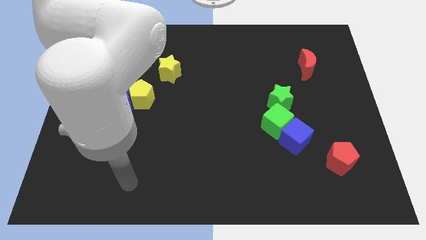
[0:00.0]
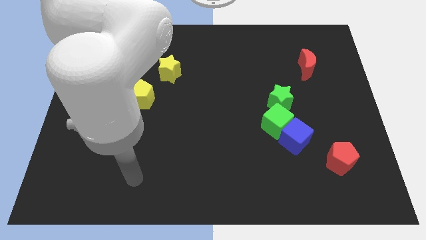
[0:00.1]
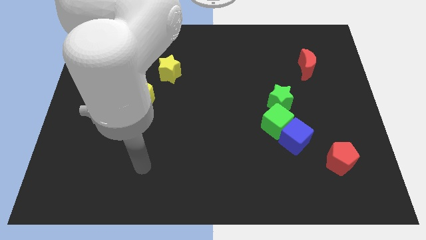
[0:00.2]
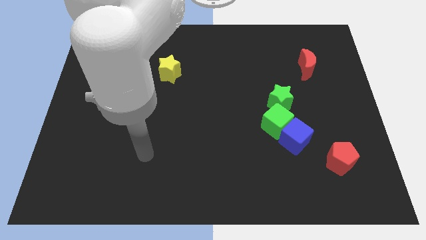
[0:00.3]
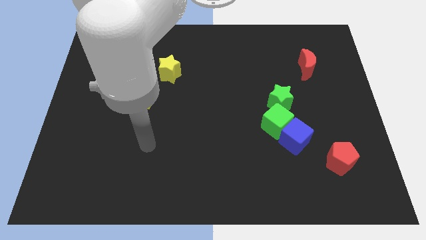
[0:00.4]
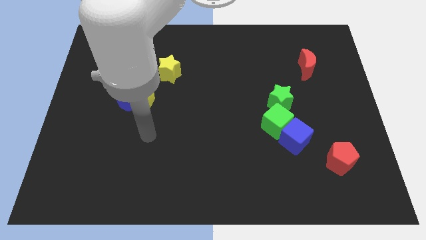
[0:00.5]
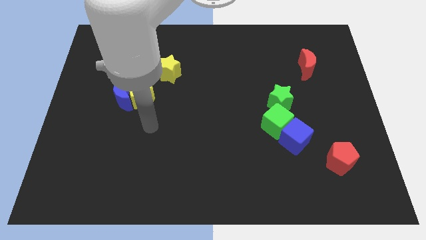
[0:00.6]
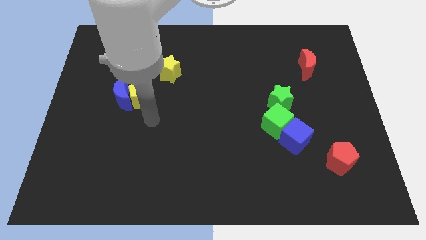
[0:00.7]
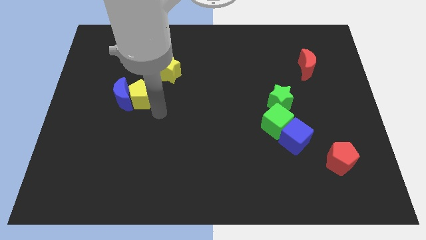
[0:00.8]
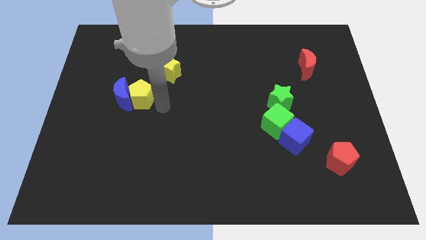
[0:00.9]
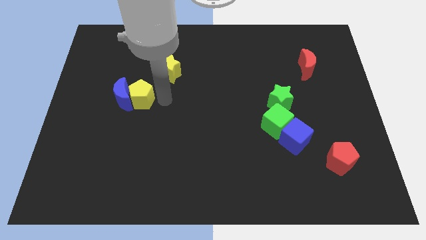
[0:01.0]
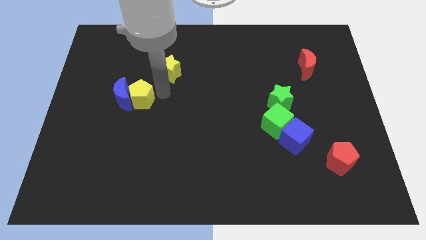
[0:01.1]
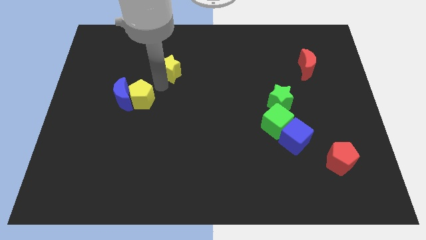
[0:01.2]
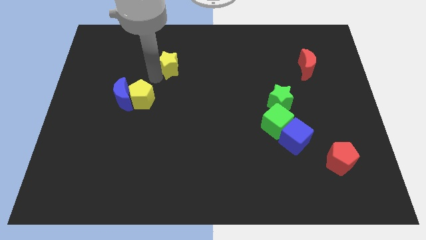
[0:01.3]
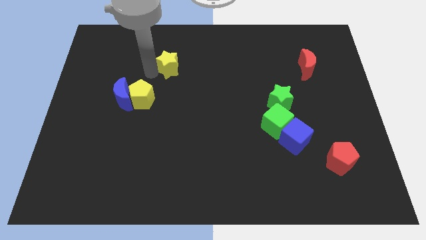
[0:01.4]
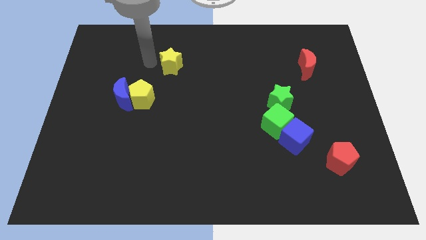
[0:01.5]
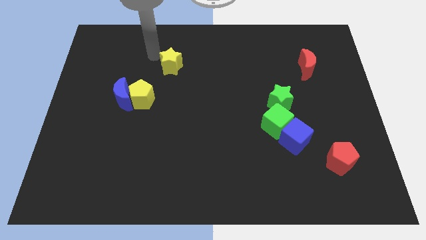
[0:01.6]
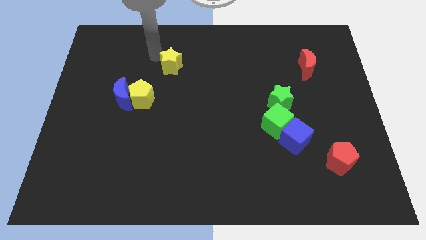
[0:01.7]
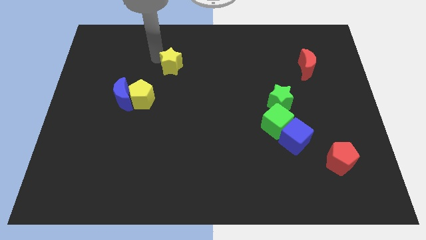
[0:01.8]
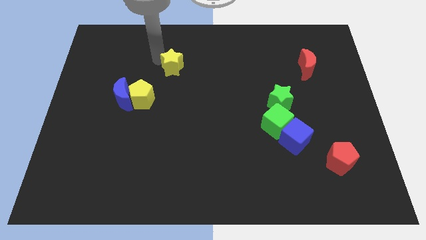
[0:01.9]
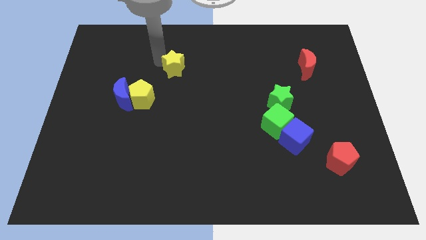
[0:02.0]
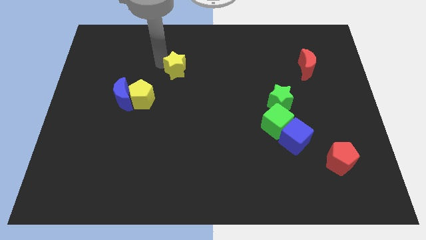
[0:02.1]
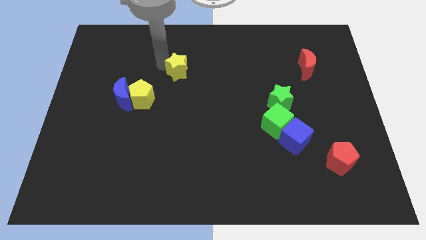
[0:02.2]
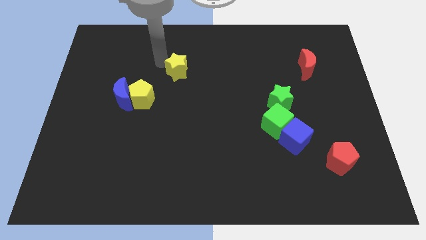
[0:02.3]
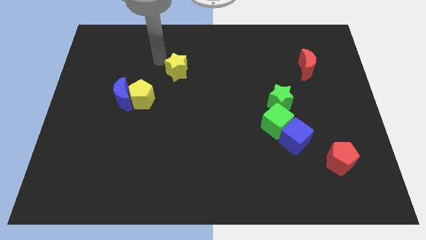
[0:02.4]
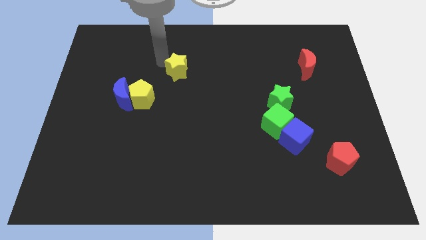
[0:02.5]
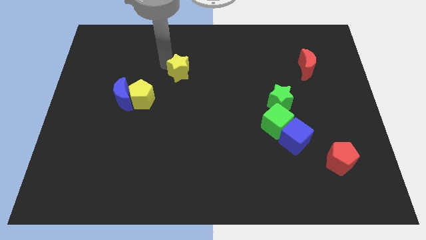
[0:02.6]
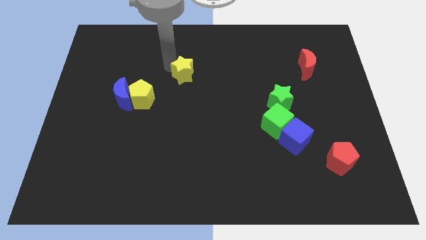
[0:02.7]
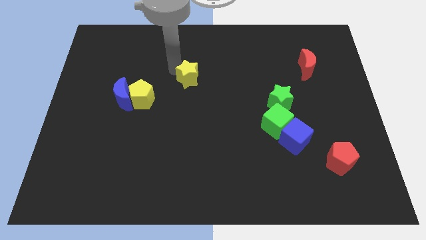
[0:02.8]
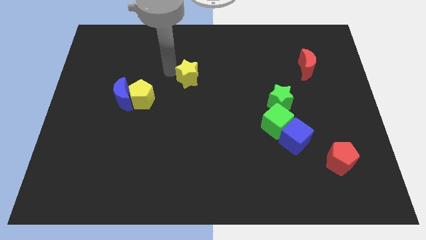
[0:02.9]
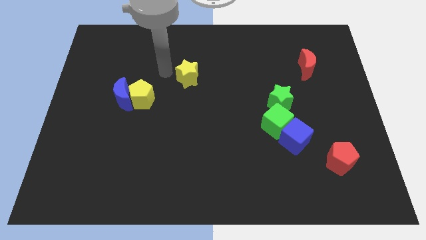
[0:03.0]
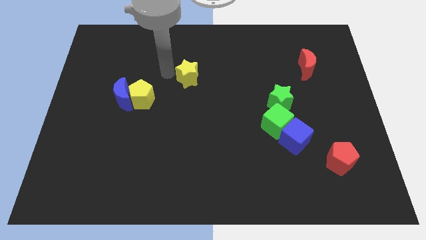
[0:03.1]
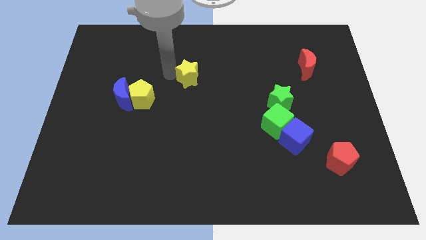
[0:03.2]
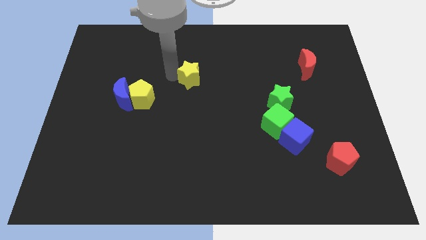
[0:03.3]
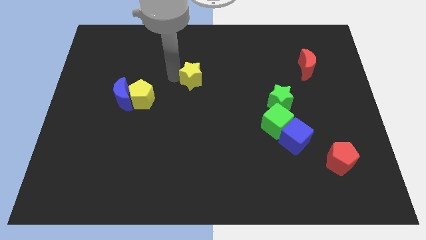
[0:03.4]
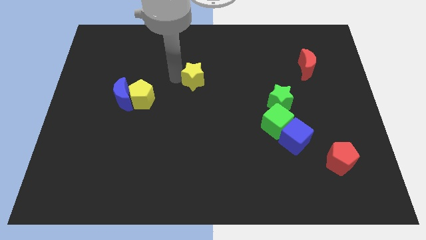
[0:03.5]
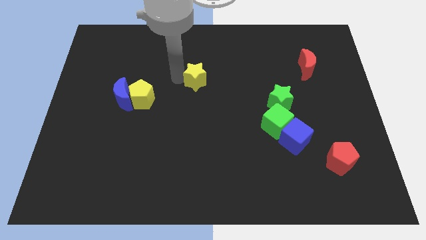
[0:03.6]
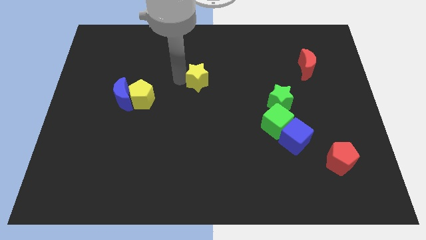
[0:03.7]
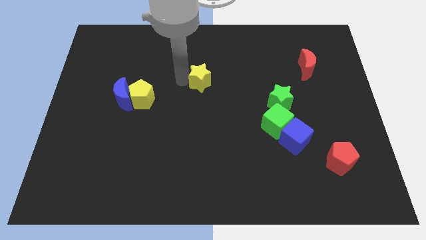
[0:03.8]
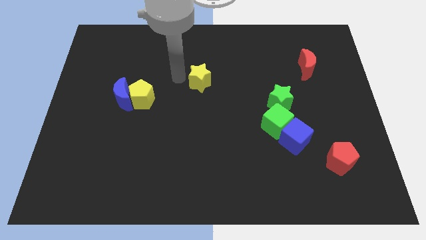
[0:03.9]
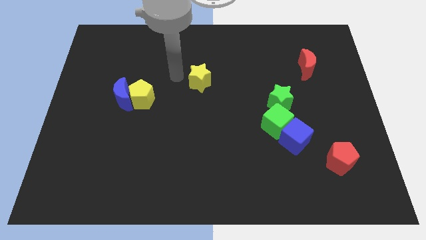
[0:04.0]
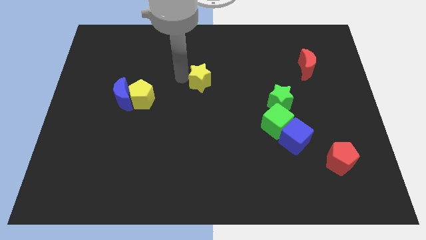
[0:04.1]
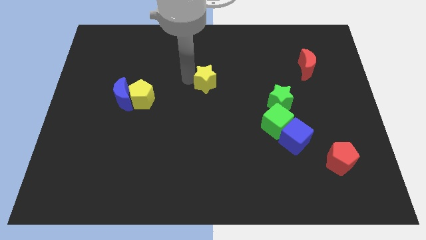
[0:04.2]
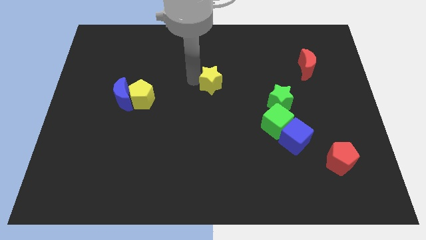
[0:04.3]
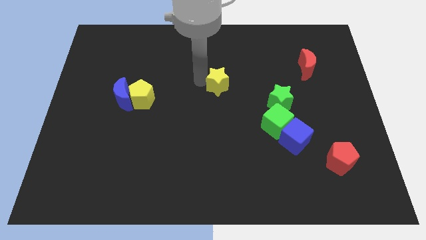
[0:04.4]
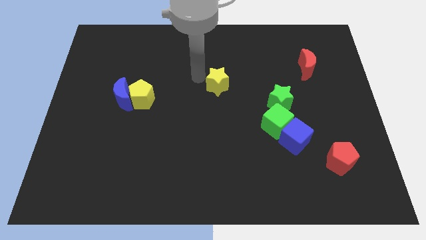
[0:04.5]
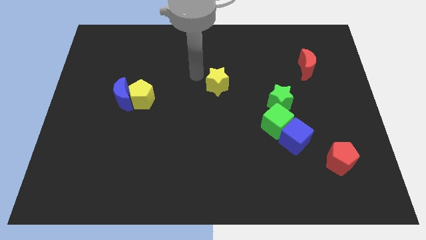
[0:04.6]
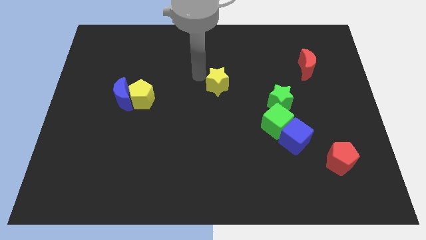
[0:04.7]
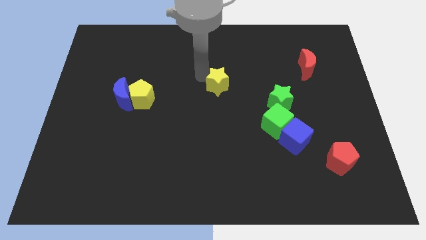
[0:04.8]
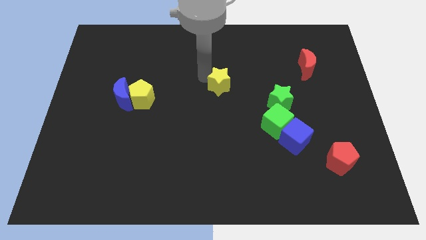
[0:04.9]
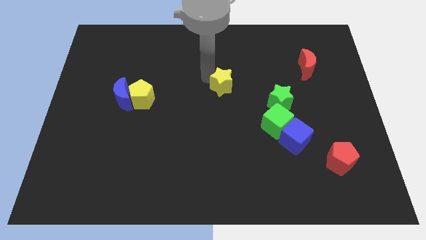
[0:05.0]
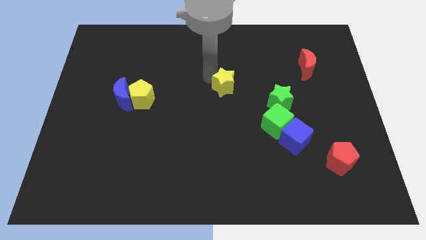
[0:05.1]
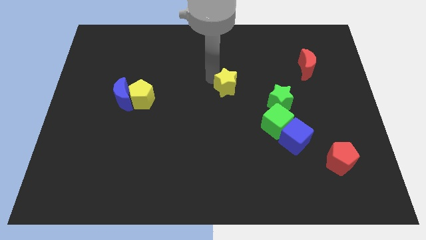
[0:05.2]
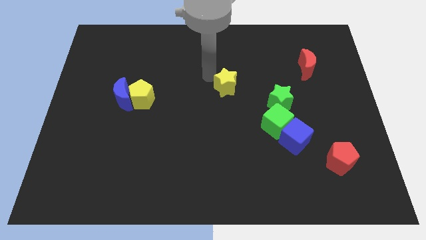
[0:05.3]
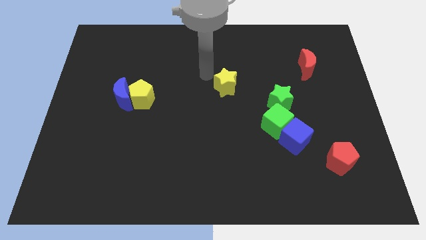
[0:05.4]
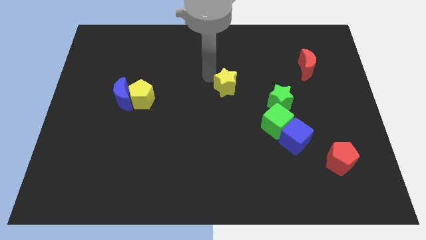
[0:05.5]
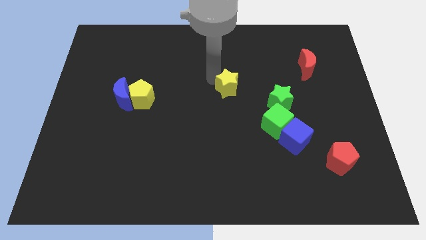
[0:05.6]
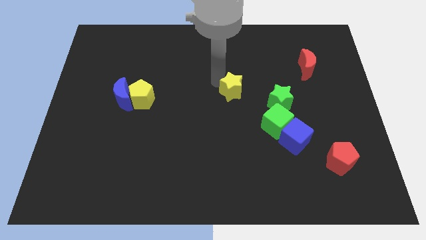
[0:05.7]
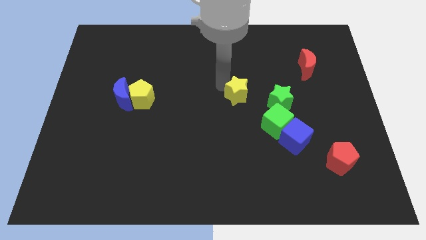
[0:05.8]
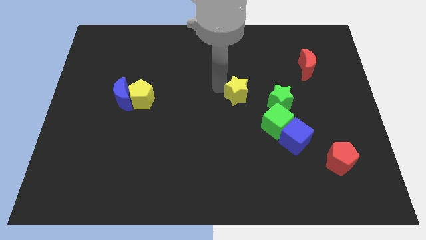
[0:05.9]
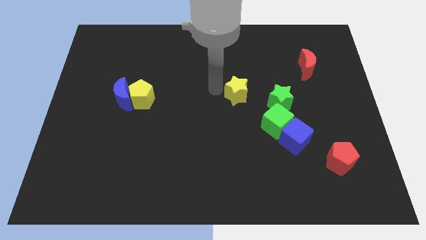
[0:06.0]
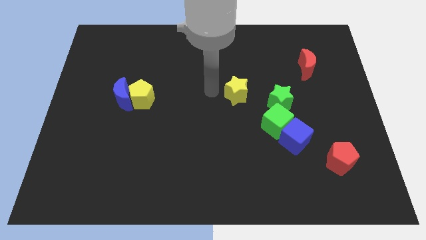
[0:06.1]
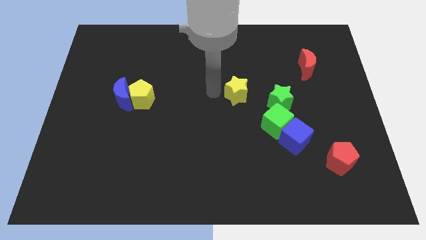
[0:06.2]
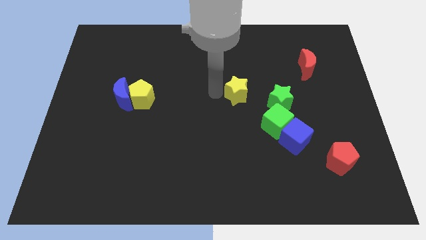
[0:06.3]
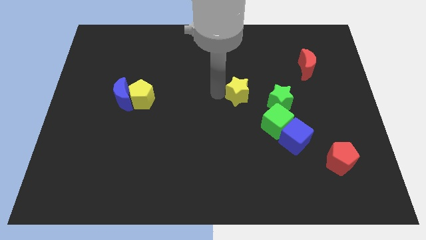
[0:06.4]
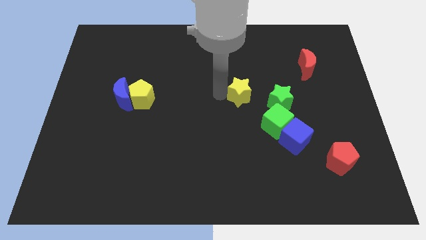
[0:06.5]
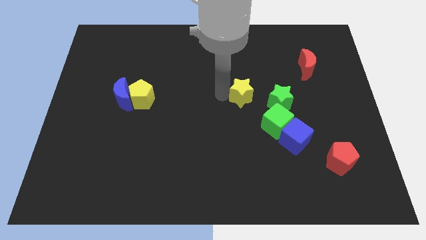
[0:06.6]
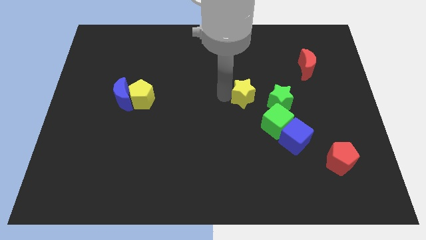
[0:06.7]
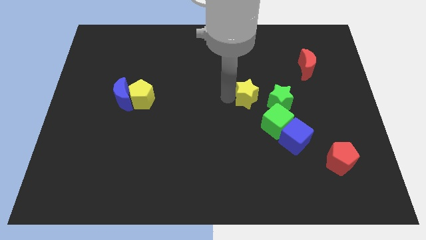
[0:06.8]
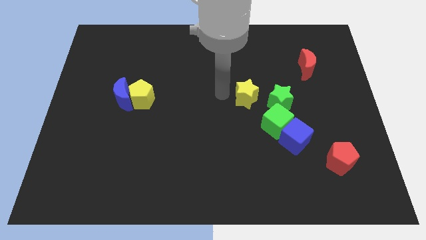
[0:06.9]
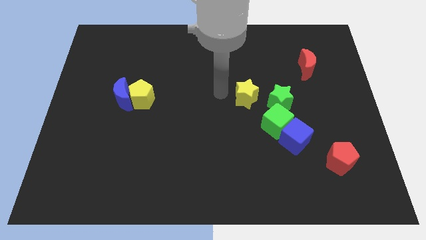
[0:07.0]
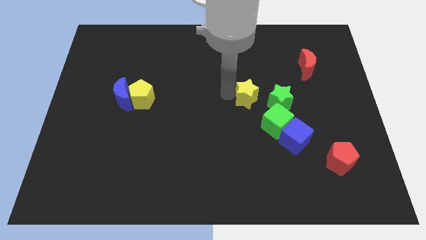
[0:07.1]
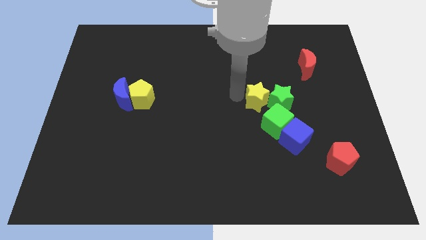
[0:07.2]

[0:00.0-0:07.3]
move the yellow star next to the green star
